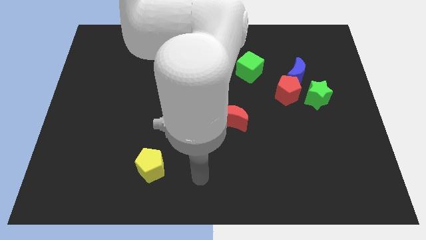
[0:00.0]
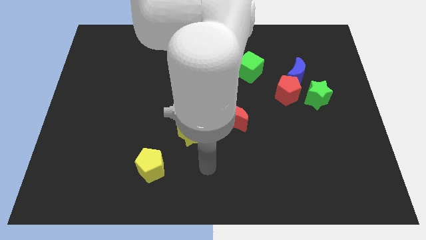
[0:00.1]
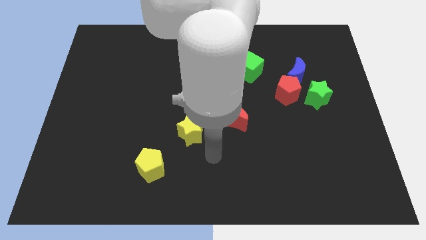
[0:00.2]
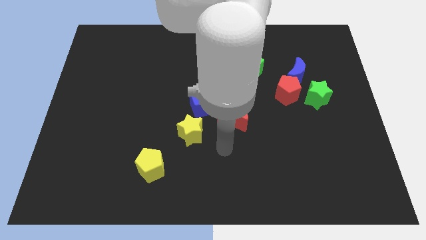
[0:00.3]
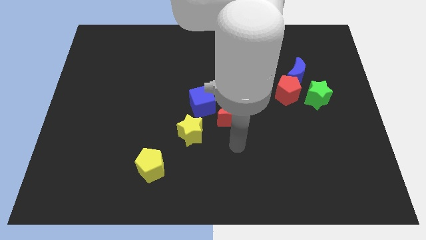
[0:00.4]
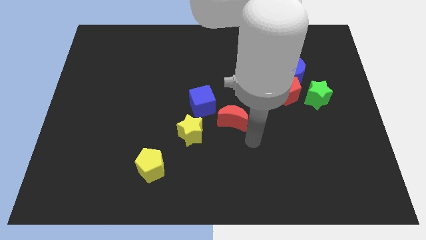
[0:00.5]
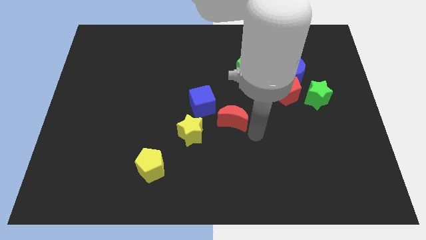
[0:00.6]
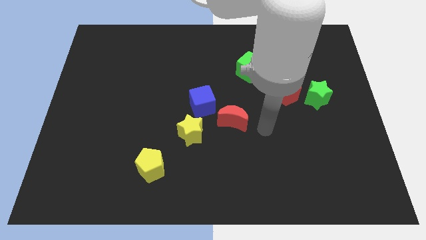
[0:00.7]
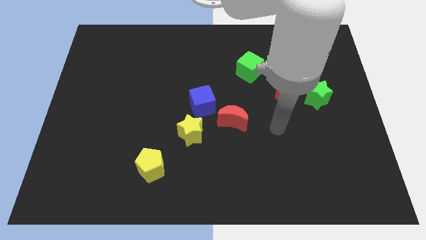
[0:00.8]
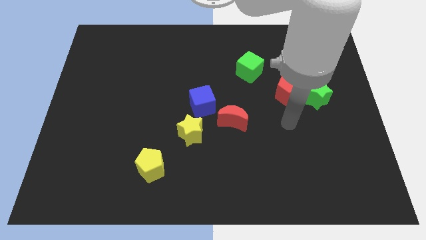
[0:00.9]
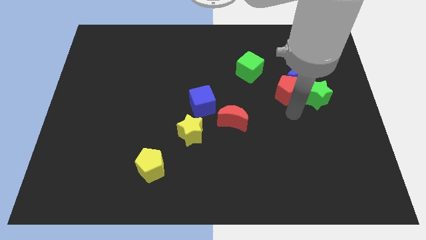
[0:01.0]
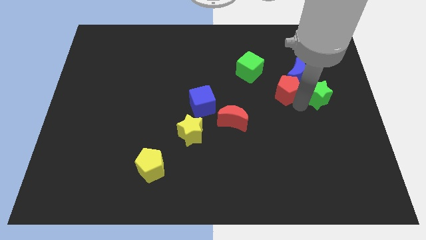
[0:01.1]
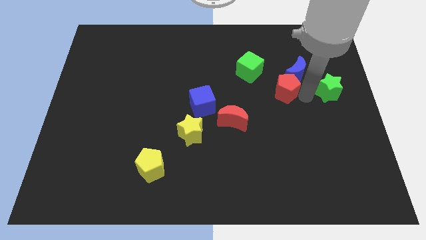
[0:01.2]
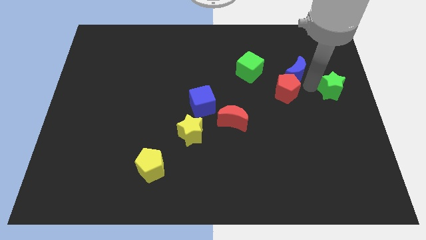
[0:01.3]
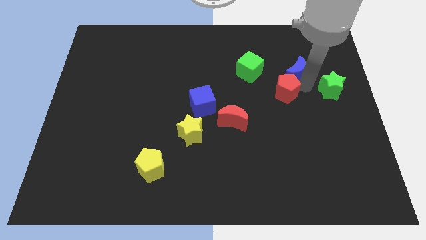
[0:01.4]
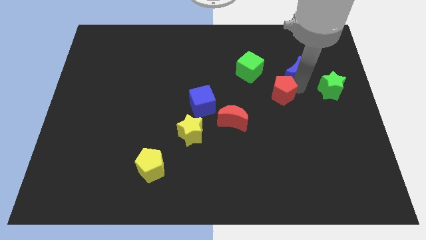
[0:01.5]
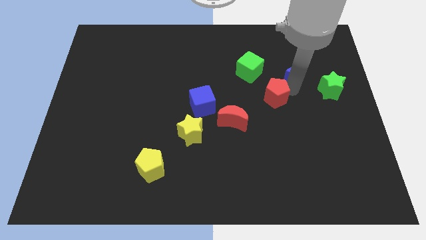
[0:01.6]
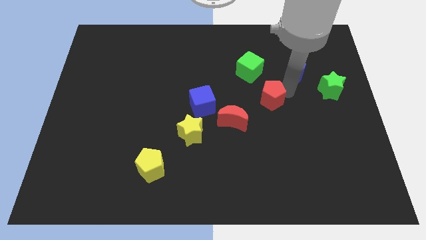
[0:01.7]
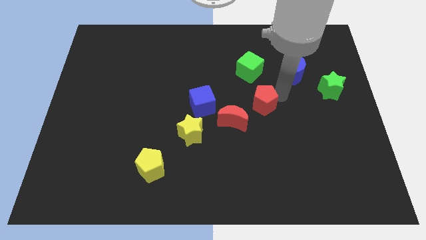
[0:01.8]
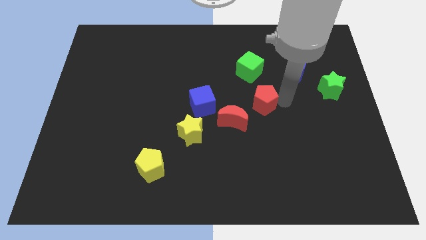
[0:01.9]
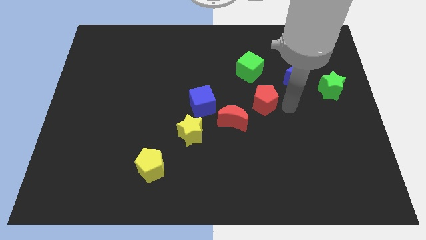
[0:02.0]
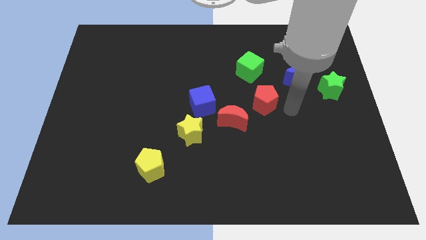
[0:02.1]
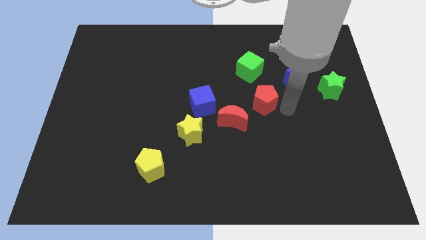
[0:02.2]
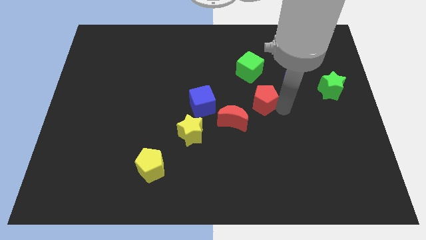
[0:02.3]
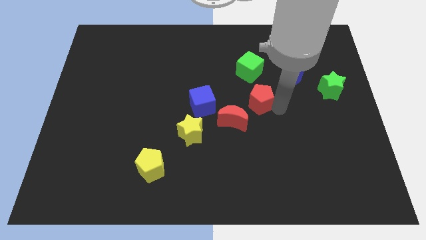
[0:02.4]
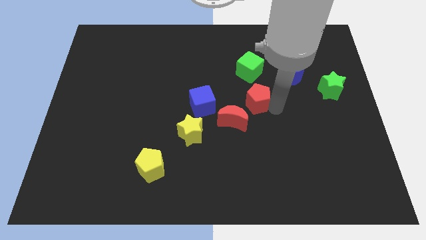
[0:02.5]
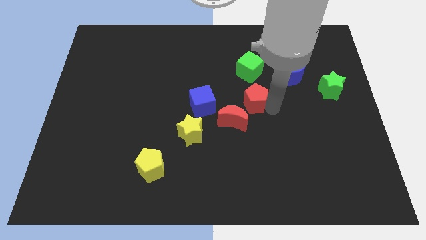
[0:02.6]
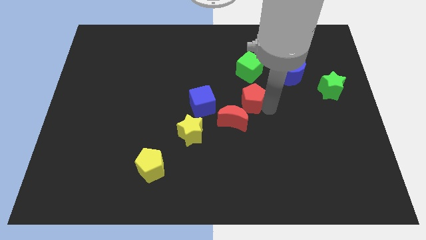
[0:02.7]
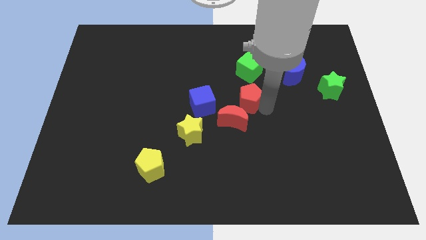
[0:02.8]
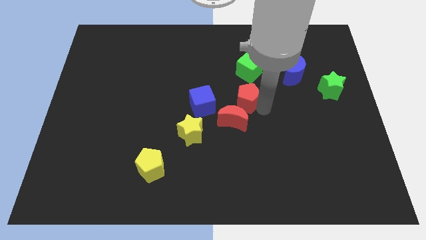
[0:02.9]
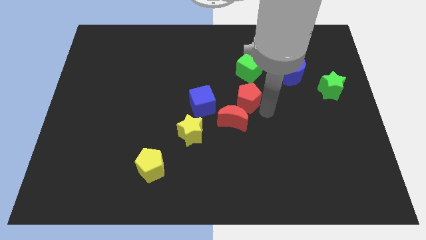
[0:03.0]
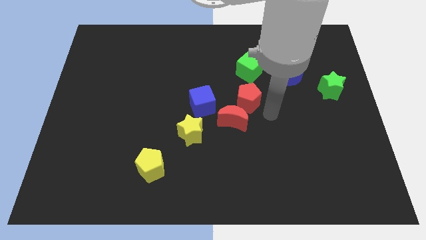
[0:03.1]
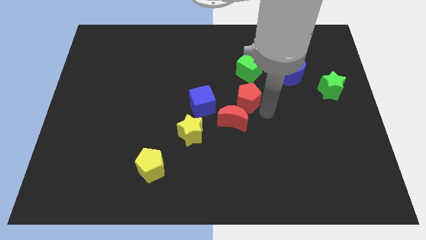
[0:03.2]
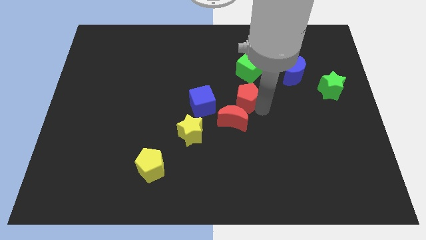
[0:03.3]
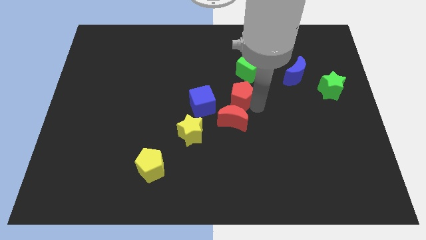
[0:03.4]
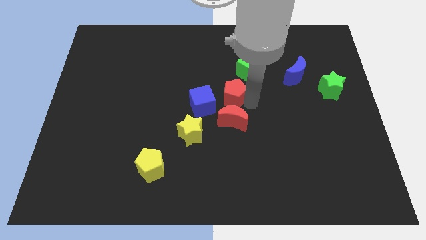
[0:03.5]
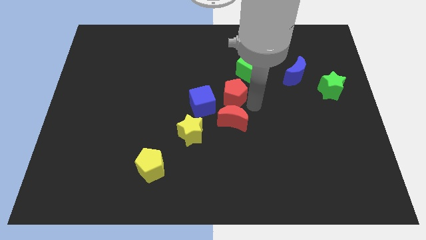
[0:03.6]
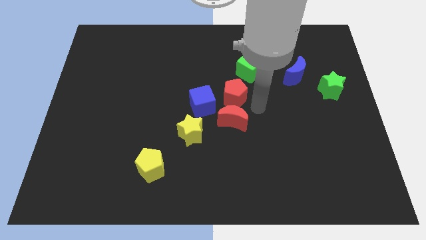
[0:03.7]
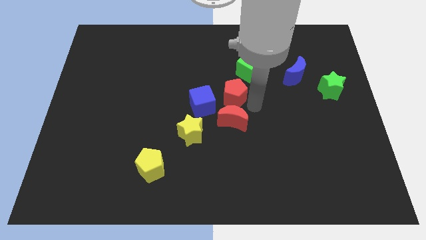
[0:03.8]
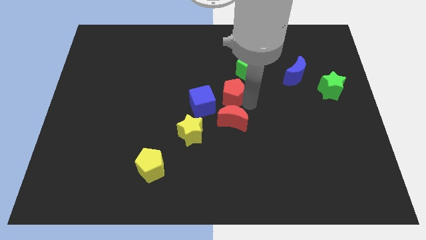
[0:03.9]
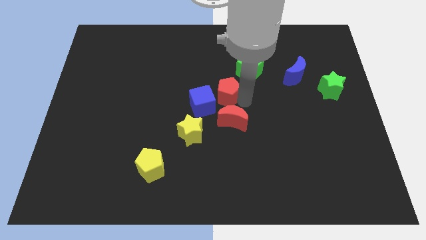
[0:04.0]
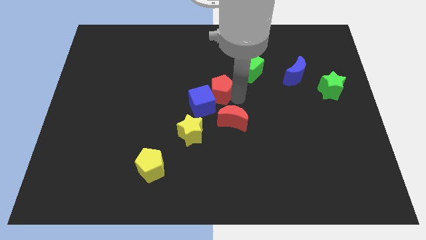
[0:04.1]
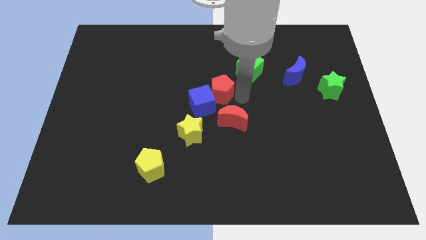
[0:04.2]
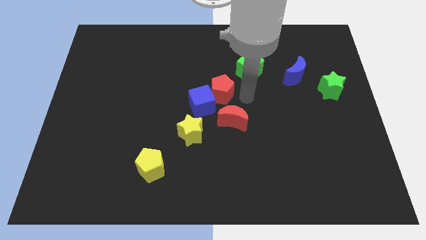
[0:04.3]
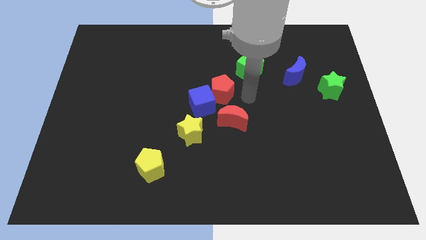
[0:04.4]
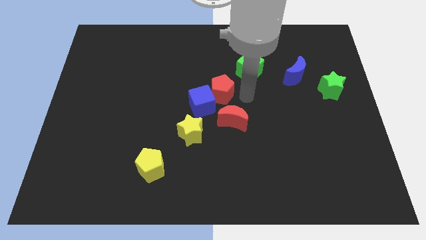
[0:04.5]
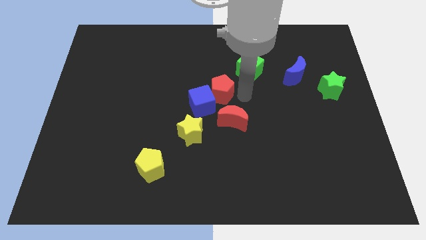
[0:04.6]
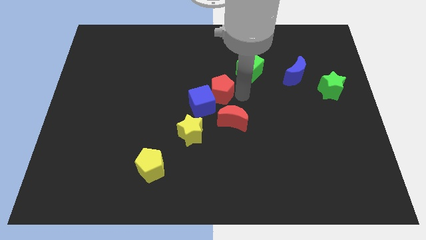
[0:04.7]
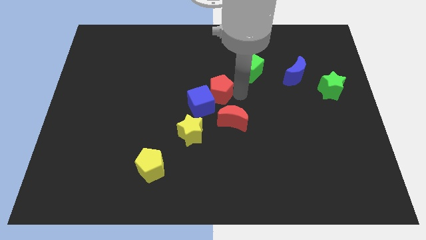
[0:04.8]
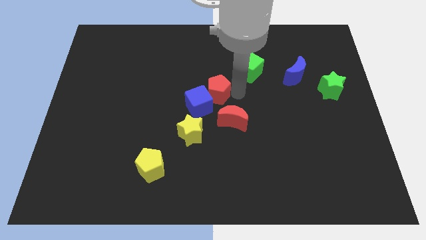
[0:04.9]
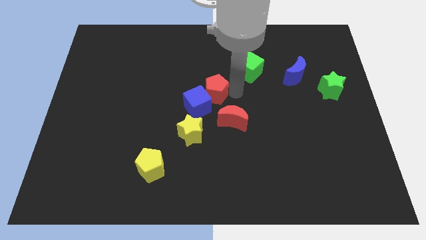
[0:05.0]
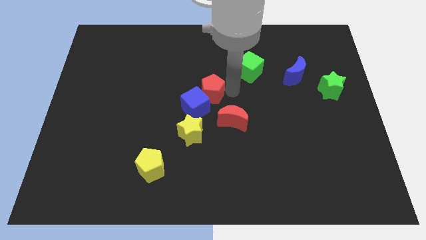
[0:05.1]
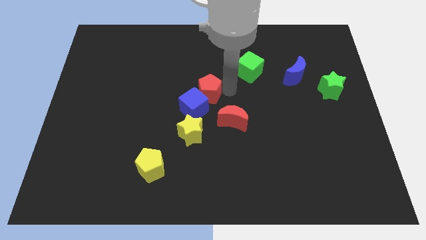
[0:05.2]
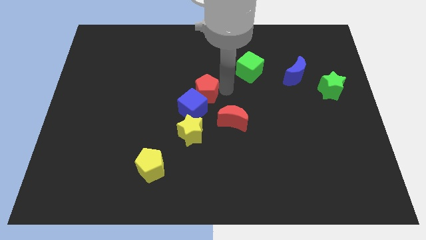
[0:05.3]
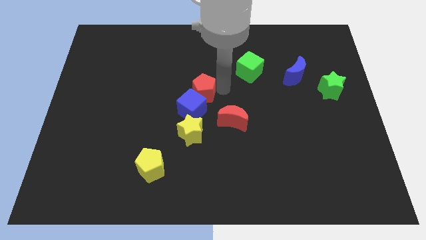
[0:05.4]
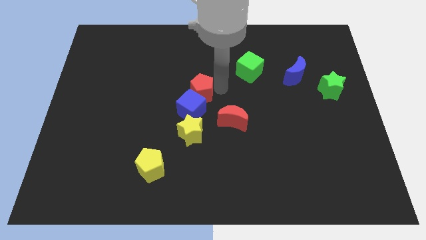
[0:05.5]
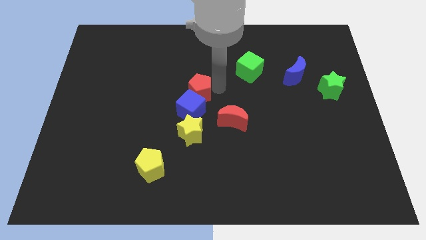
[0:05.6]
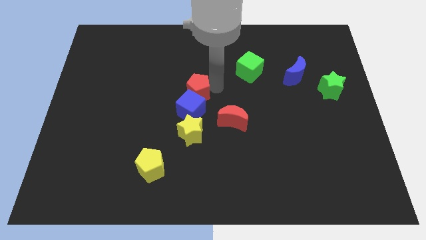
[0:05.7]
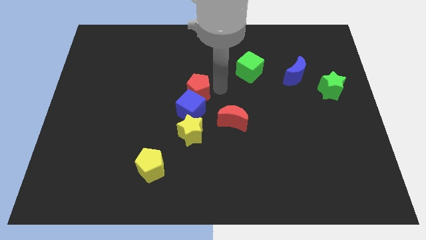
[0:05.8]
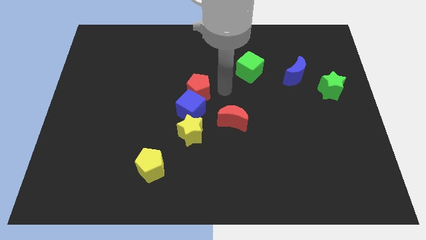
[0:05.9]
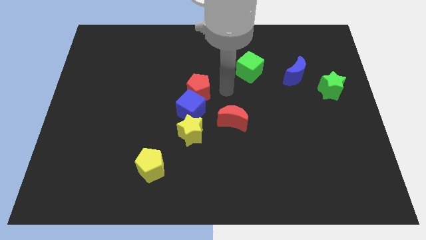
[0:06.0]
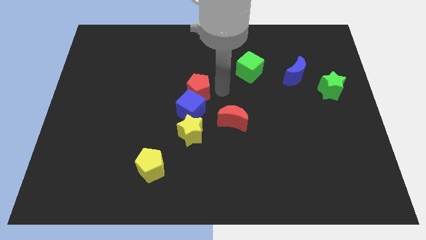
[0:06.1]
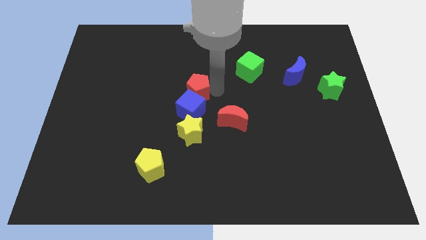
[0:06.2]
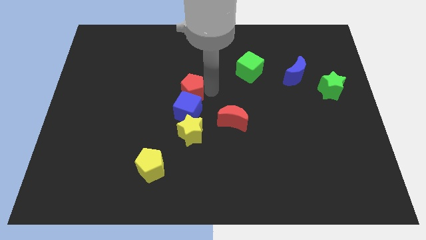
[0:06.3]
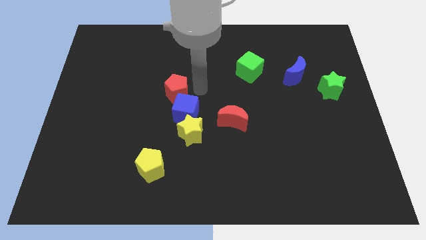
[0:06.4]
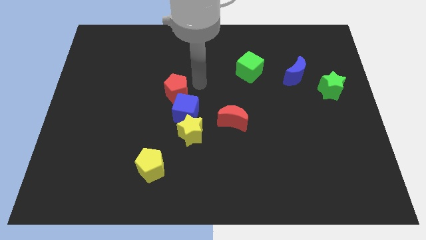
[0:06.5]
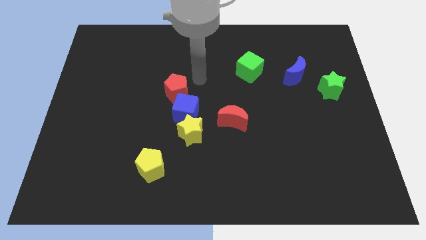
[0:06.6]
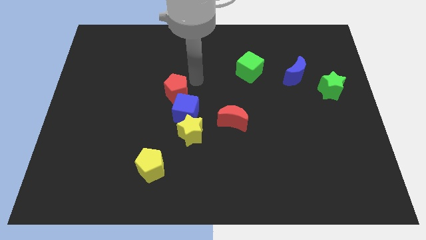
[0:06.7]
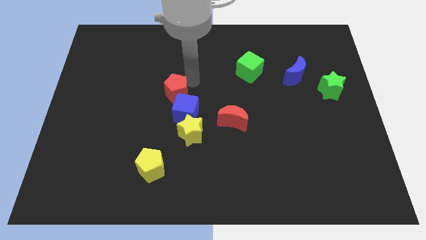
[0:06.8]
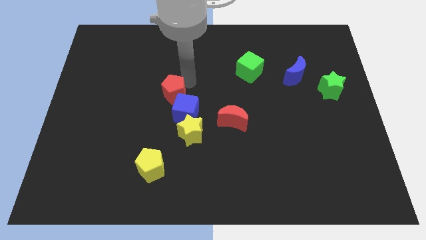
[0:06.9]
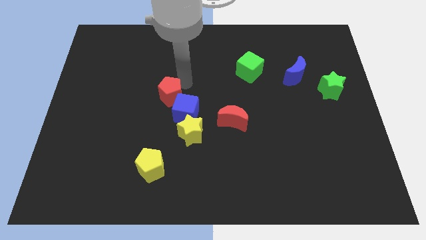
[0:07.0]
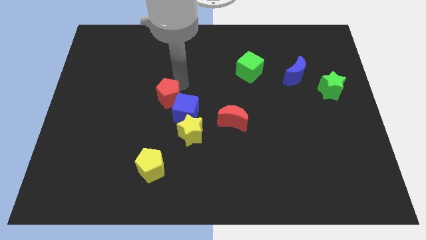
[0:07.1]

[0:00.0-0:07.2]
slide the red pentagon left of the blue cube
